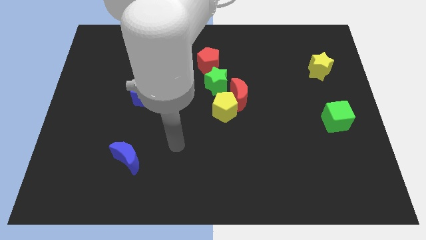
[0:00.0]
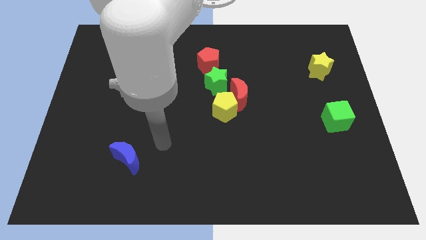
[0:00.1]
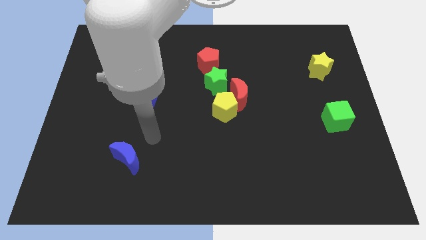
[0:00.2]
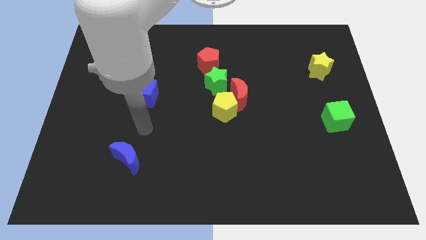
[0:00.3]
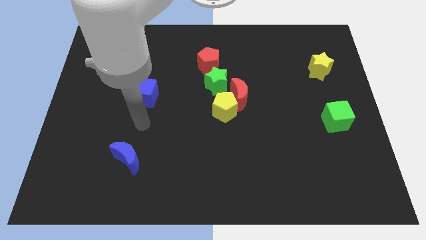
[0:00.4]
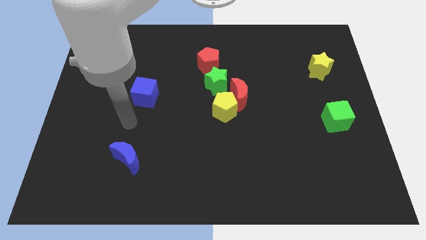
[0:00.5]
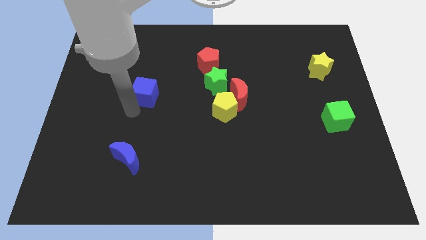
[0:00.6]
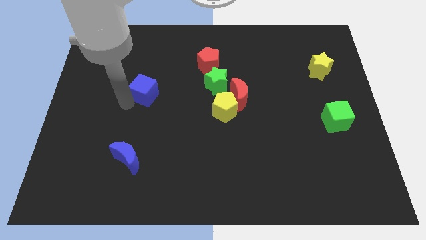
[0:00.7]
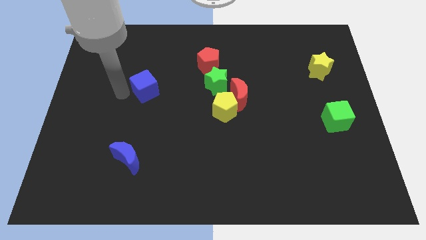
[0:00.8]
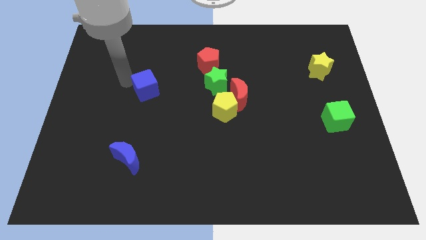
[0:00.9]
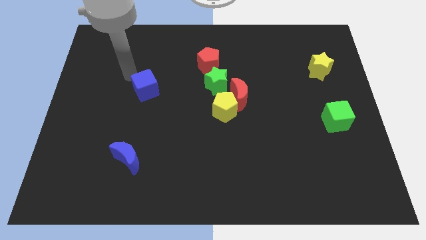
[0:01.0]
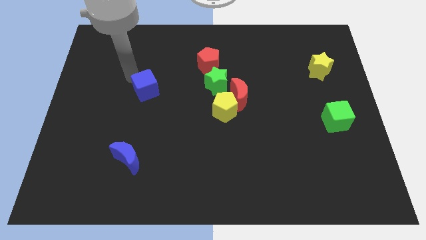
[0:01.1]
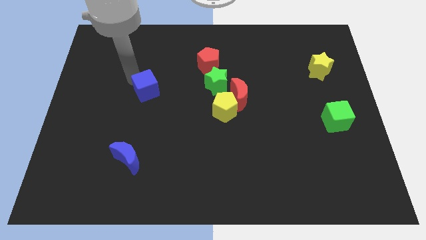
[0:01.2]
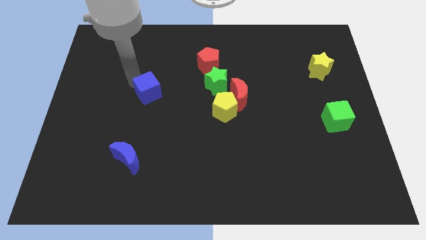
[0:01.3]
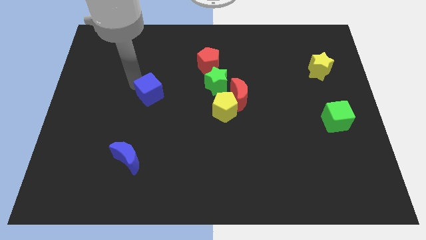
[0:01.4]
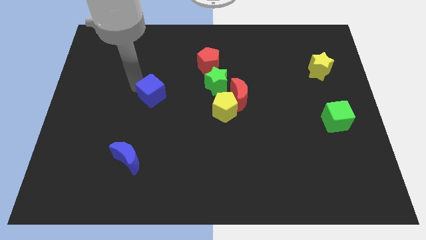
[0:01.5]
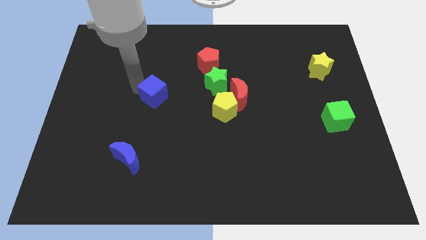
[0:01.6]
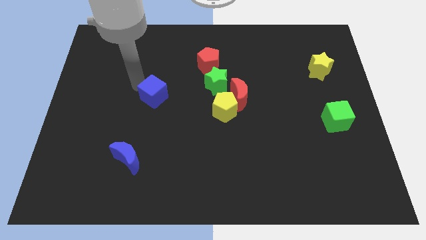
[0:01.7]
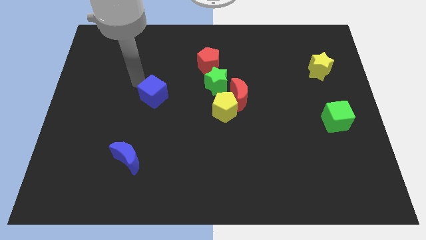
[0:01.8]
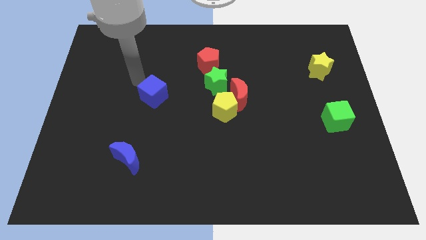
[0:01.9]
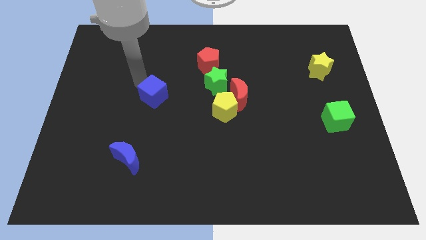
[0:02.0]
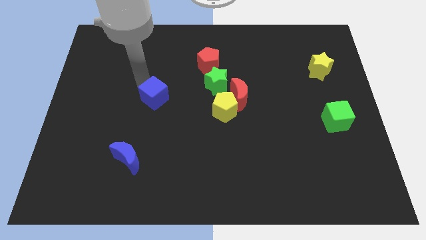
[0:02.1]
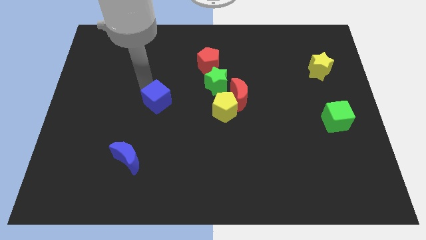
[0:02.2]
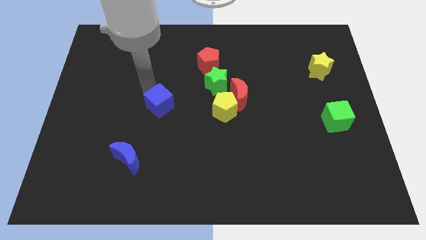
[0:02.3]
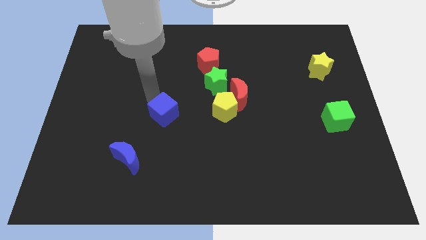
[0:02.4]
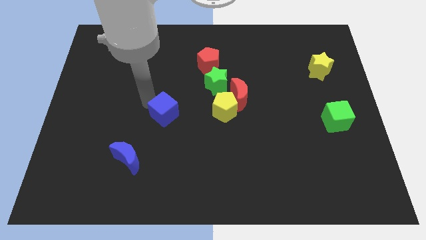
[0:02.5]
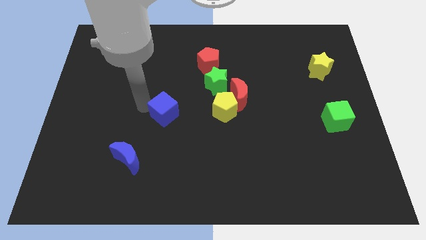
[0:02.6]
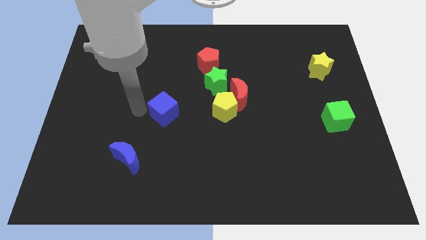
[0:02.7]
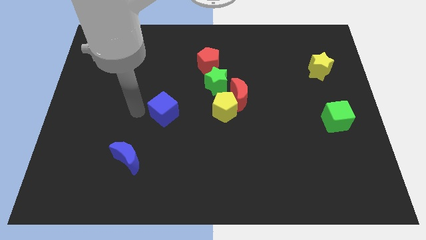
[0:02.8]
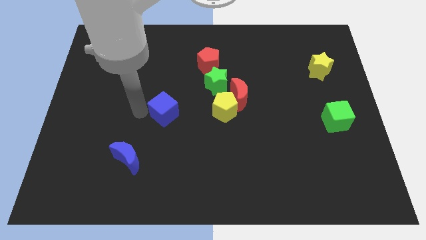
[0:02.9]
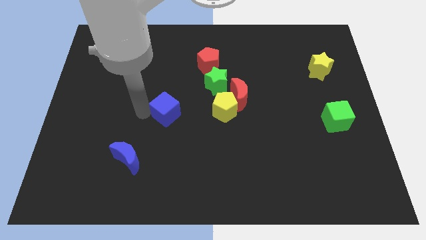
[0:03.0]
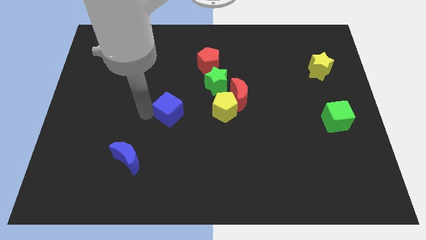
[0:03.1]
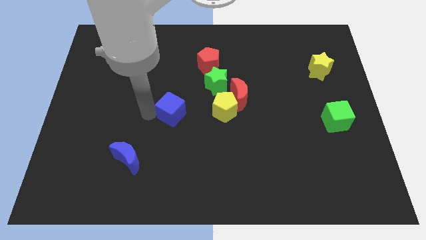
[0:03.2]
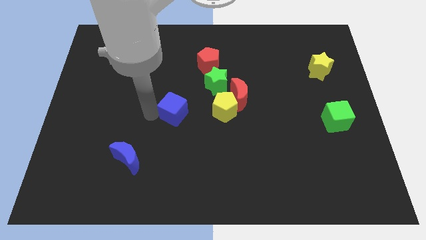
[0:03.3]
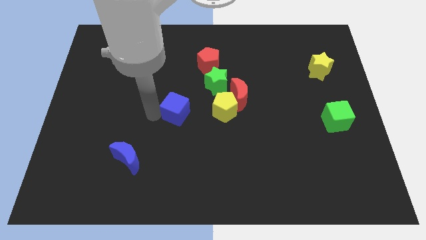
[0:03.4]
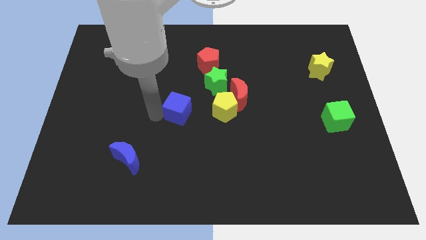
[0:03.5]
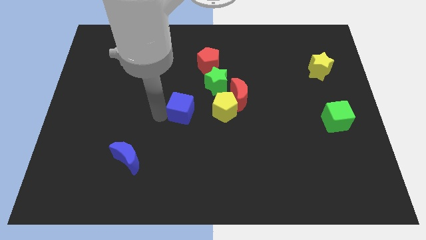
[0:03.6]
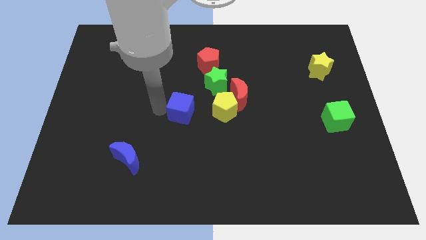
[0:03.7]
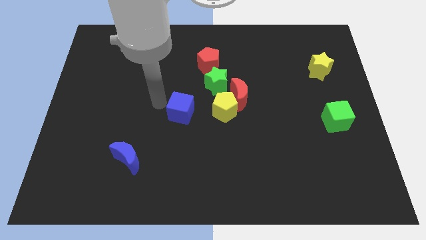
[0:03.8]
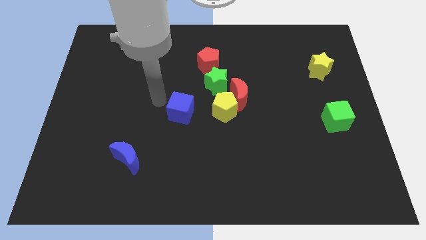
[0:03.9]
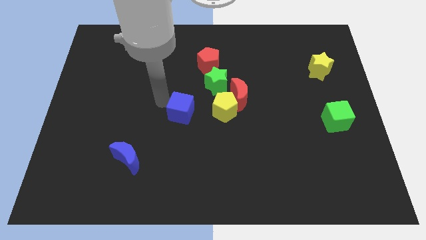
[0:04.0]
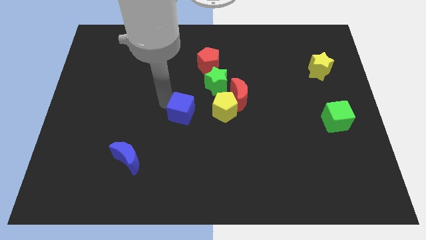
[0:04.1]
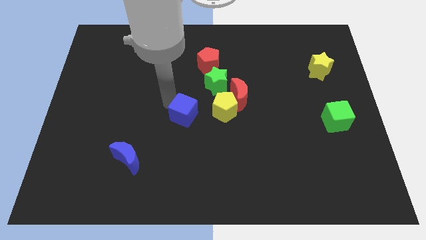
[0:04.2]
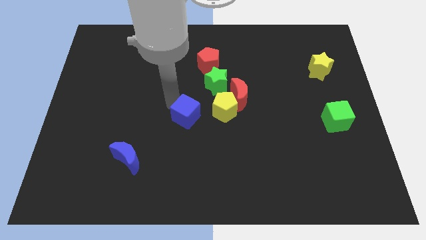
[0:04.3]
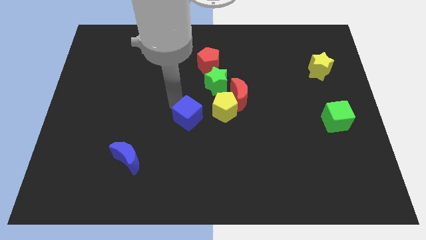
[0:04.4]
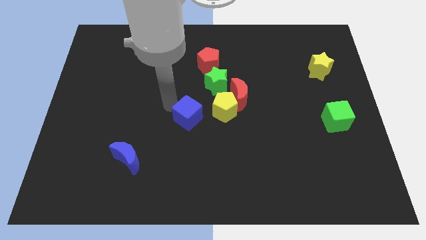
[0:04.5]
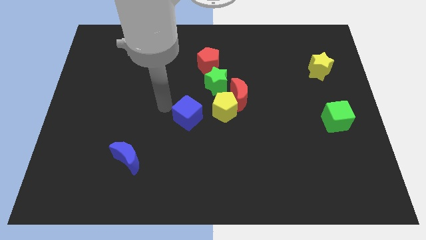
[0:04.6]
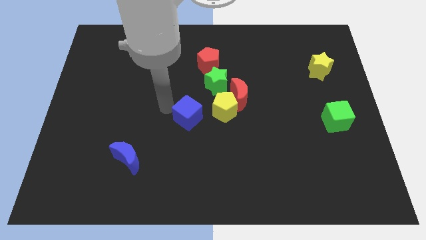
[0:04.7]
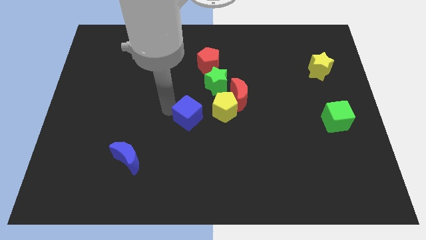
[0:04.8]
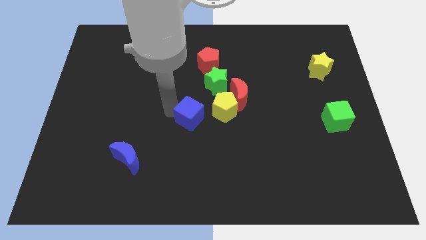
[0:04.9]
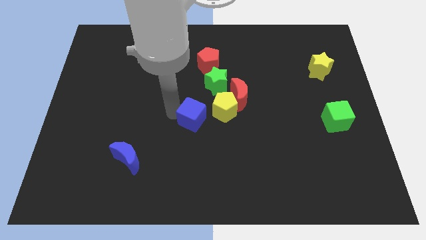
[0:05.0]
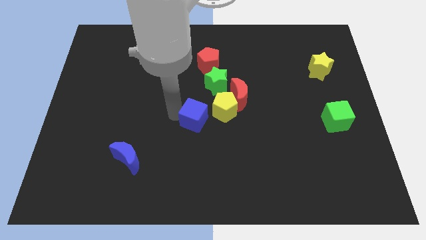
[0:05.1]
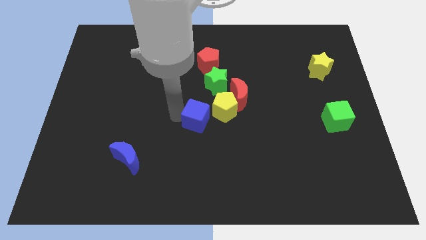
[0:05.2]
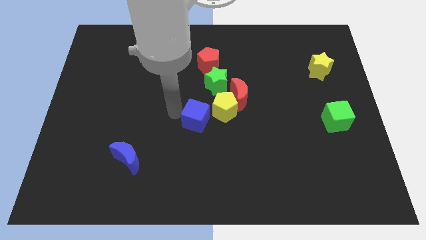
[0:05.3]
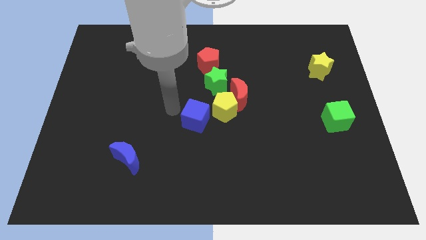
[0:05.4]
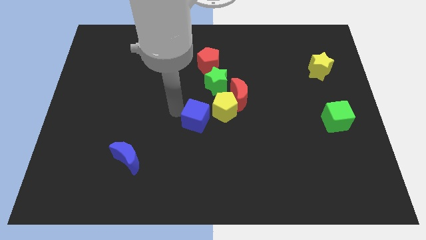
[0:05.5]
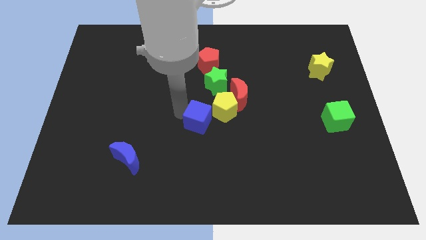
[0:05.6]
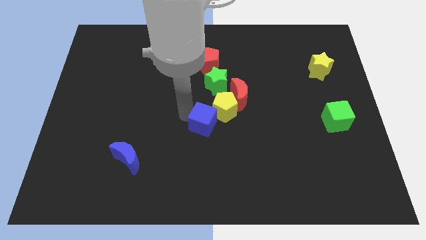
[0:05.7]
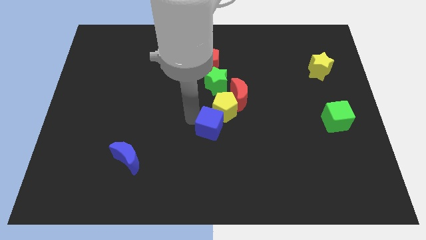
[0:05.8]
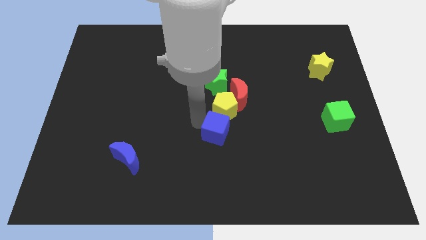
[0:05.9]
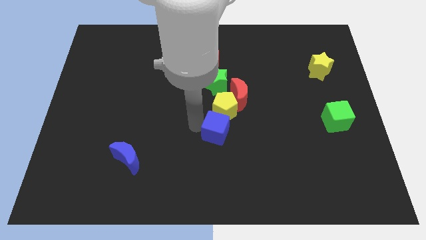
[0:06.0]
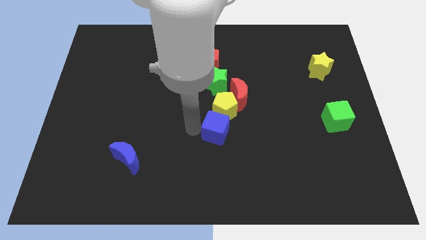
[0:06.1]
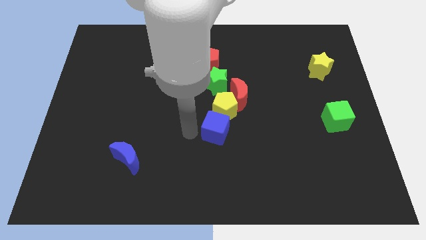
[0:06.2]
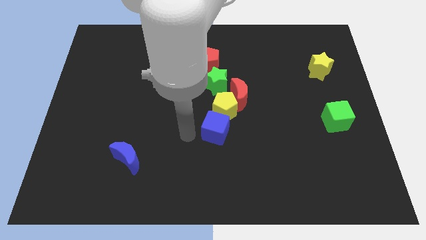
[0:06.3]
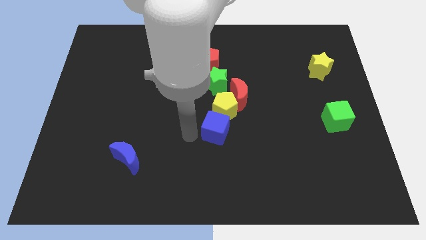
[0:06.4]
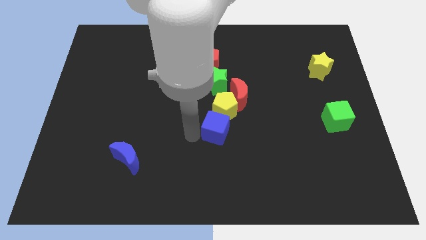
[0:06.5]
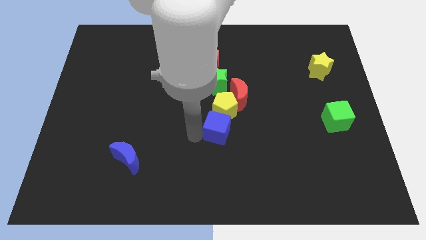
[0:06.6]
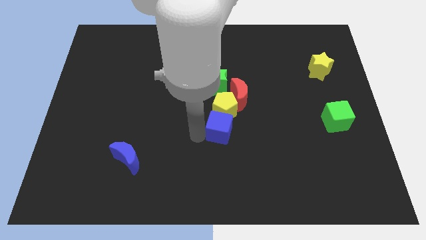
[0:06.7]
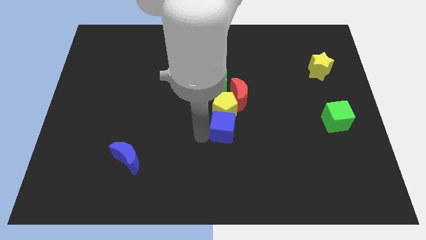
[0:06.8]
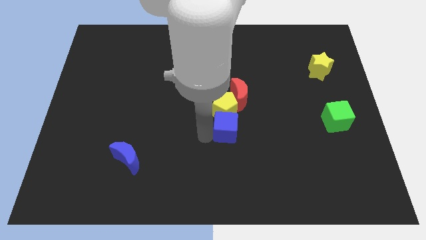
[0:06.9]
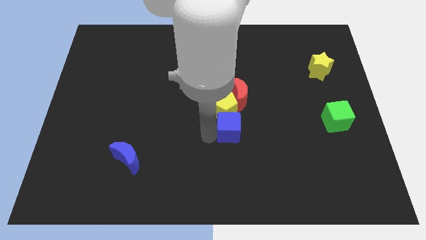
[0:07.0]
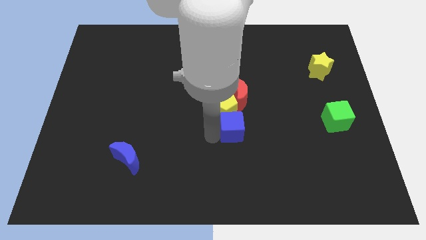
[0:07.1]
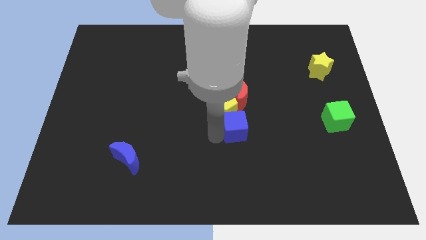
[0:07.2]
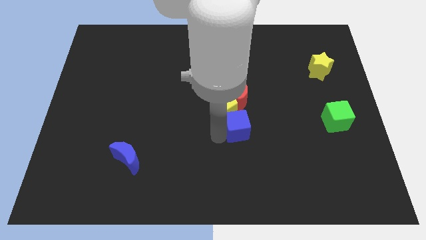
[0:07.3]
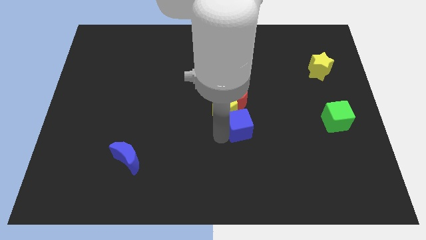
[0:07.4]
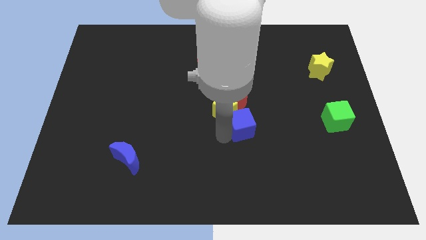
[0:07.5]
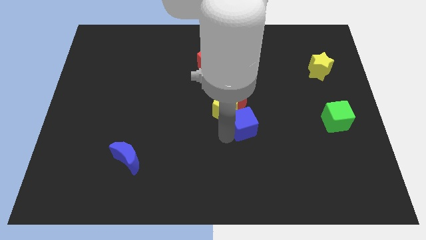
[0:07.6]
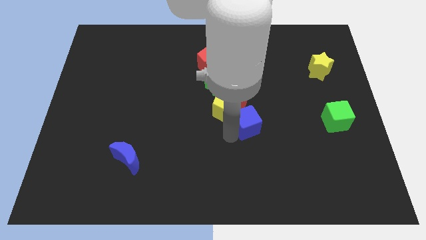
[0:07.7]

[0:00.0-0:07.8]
slide the blue cube right
